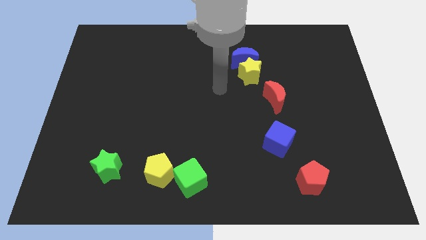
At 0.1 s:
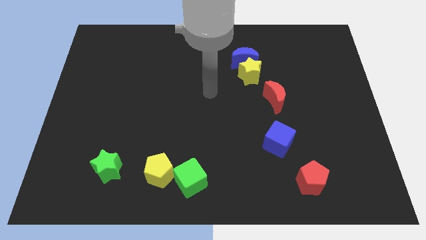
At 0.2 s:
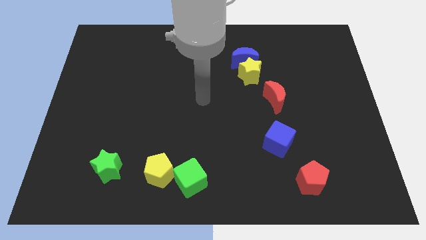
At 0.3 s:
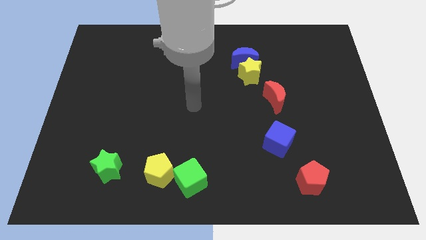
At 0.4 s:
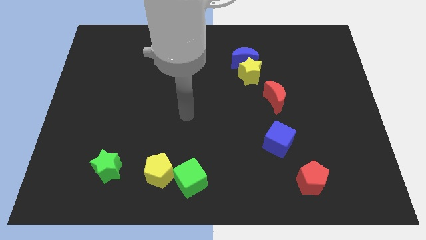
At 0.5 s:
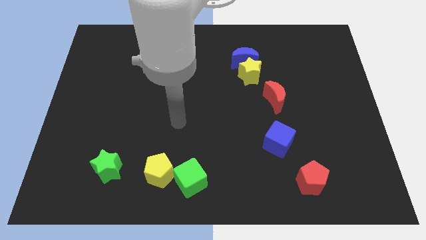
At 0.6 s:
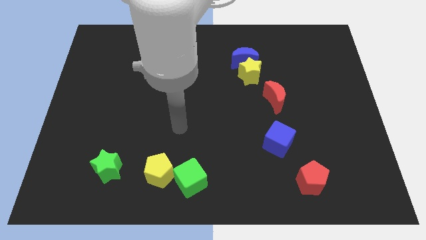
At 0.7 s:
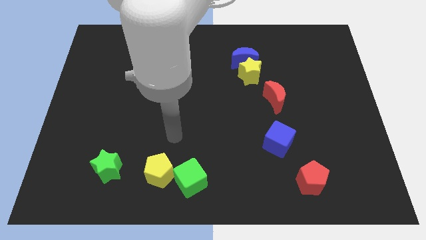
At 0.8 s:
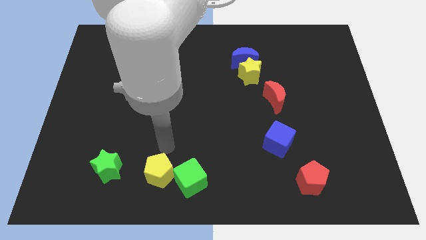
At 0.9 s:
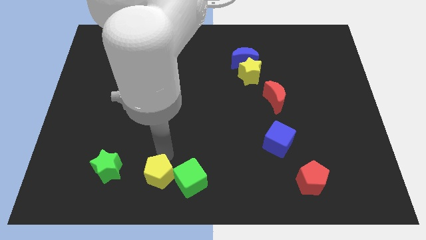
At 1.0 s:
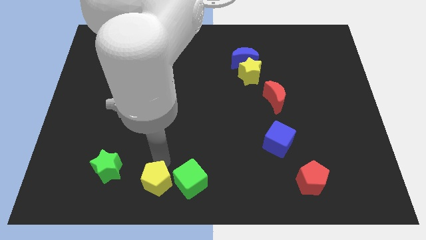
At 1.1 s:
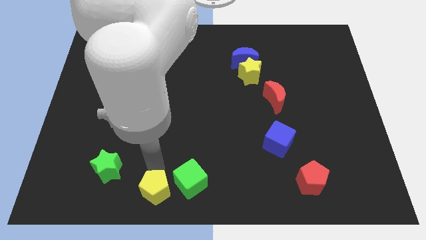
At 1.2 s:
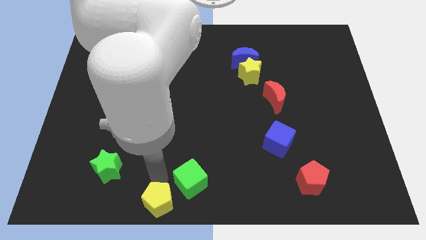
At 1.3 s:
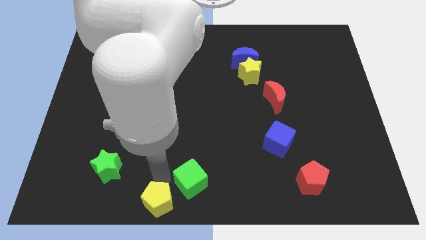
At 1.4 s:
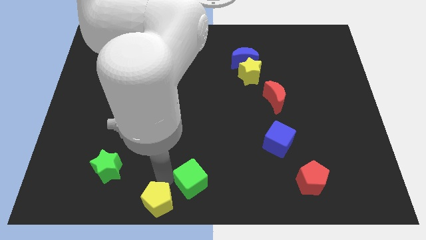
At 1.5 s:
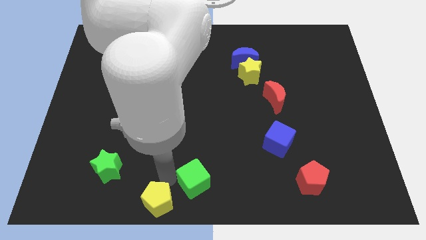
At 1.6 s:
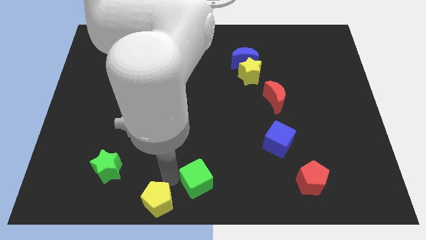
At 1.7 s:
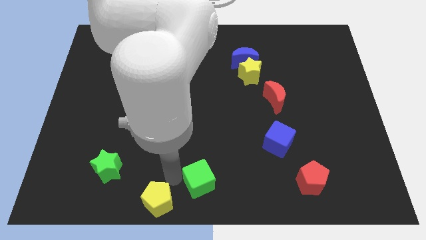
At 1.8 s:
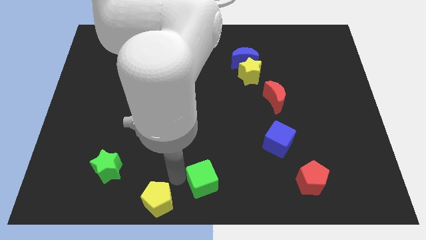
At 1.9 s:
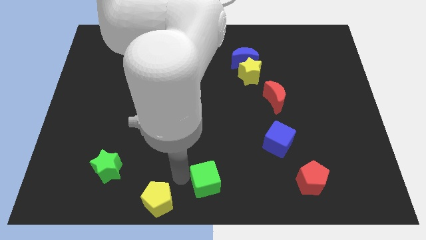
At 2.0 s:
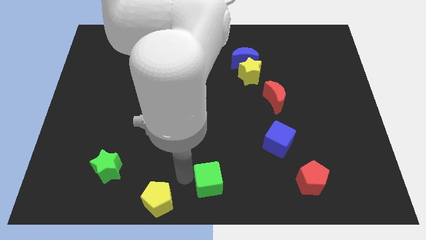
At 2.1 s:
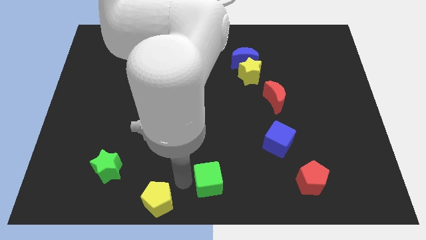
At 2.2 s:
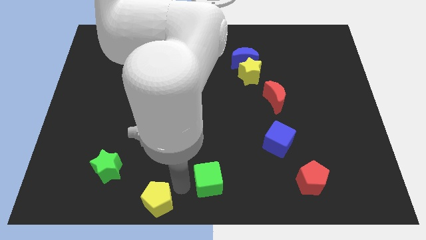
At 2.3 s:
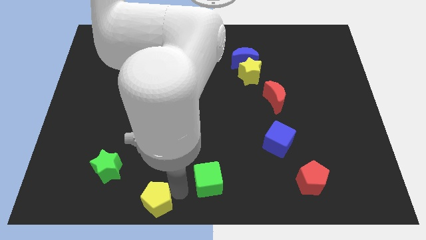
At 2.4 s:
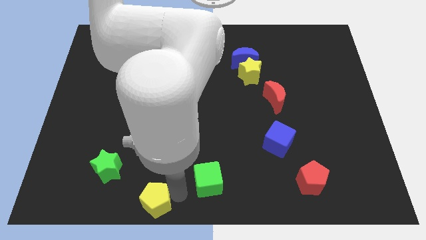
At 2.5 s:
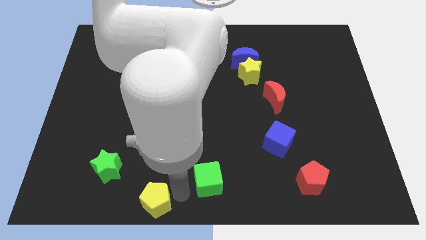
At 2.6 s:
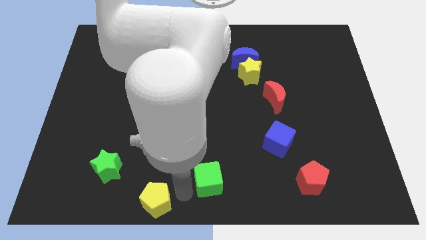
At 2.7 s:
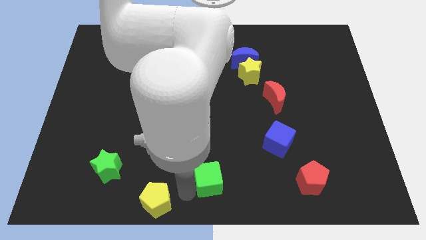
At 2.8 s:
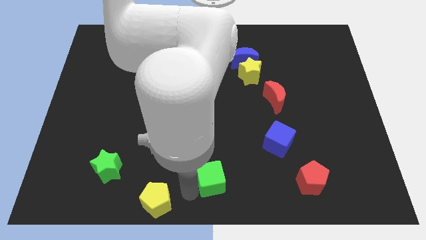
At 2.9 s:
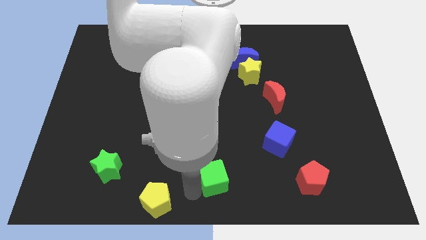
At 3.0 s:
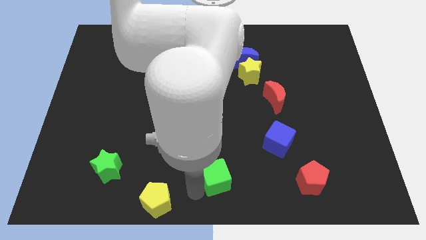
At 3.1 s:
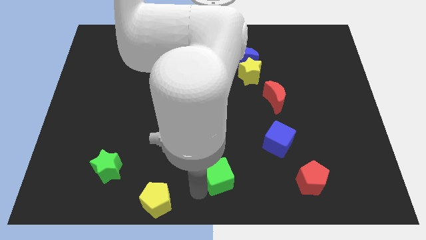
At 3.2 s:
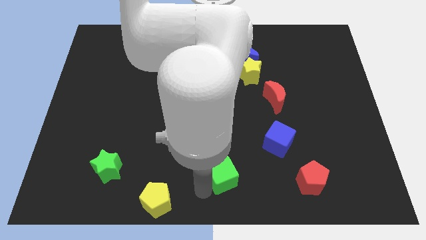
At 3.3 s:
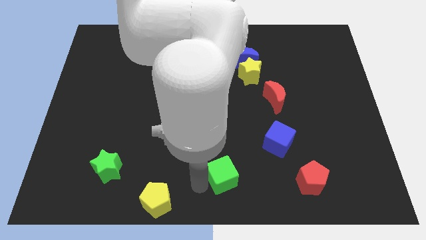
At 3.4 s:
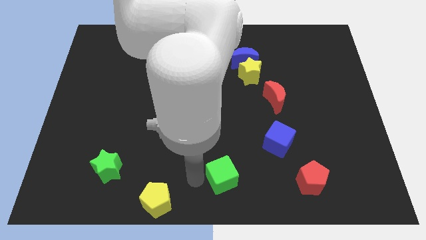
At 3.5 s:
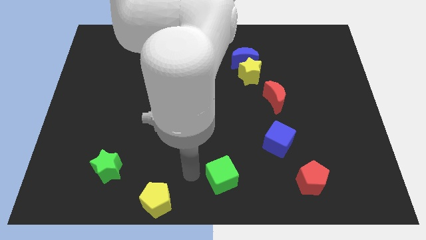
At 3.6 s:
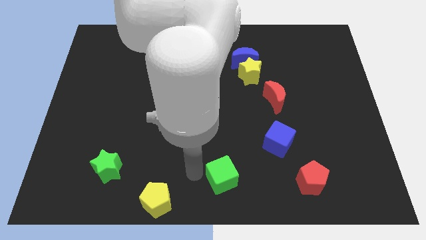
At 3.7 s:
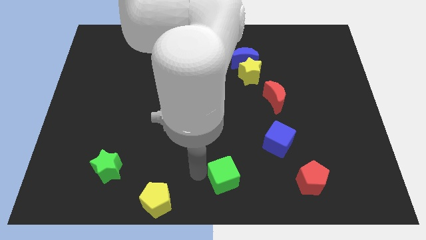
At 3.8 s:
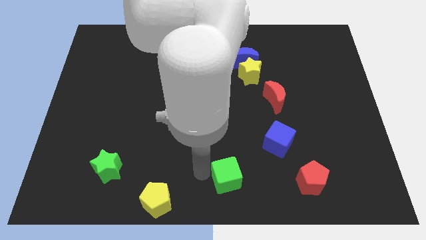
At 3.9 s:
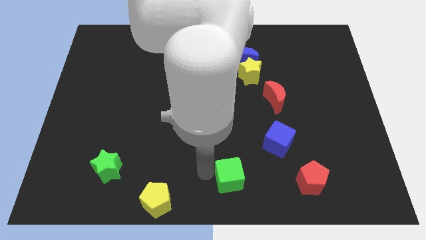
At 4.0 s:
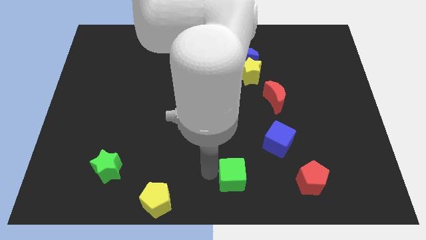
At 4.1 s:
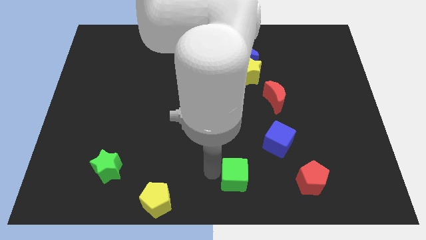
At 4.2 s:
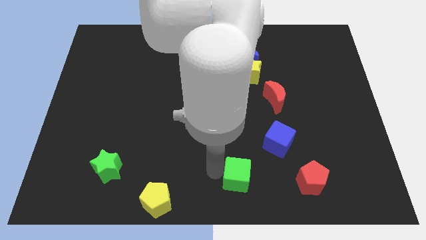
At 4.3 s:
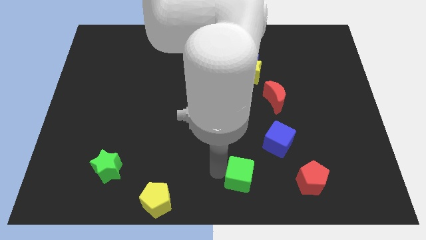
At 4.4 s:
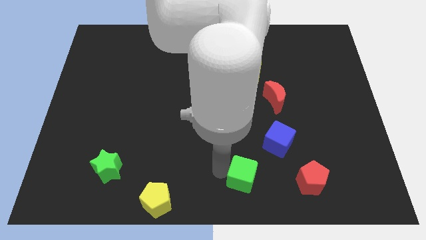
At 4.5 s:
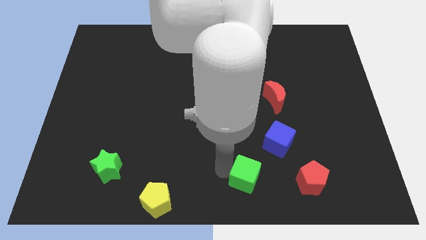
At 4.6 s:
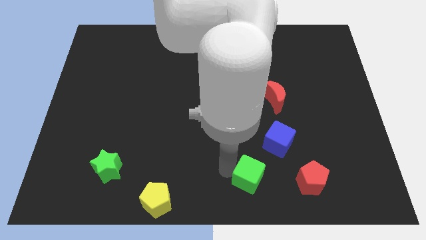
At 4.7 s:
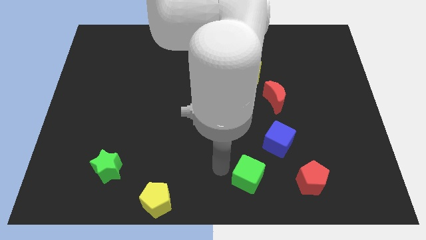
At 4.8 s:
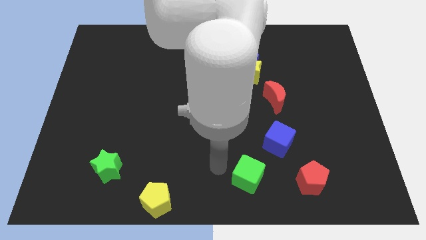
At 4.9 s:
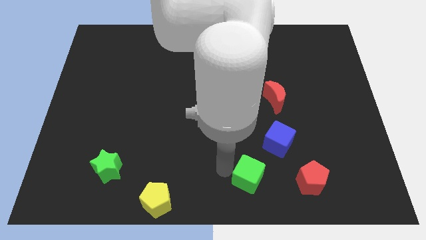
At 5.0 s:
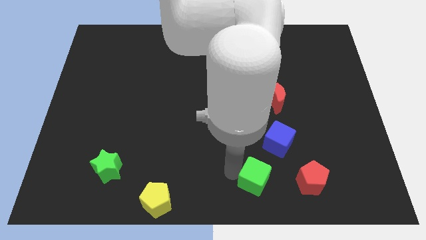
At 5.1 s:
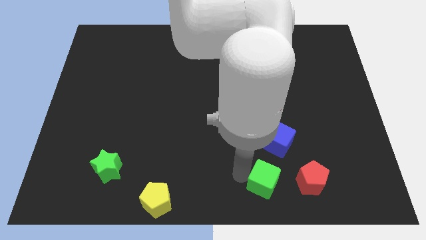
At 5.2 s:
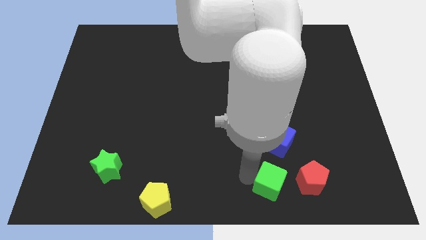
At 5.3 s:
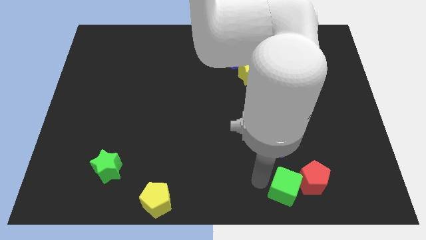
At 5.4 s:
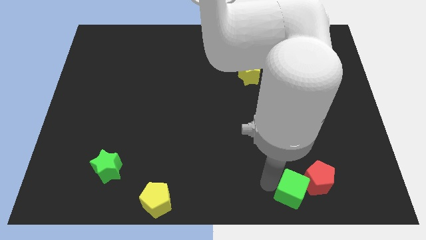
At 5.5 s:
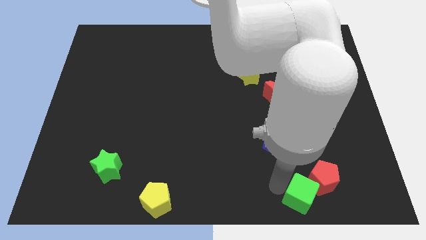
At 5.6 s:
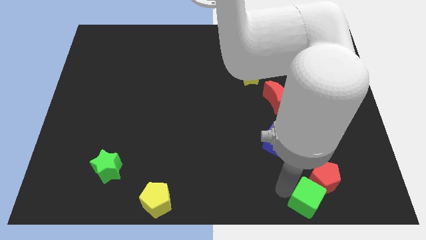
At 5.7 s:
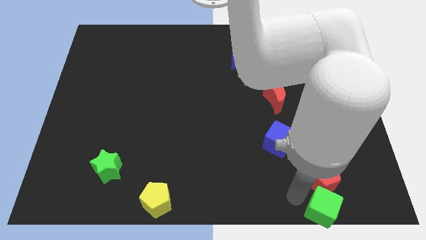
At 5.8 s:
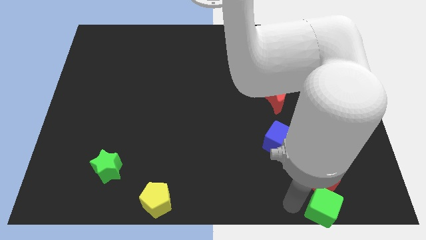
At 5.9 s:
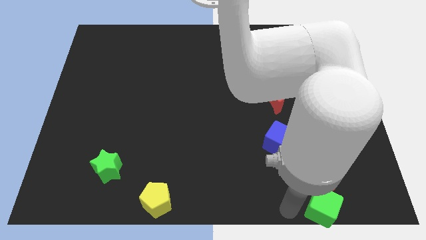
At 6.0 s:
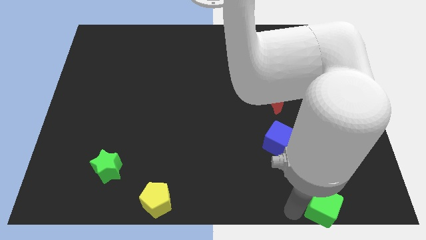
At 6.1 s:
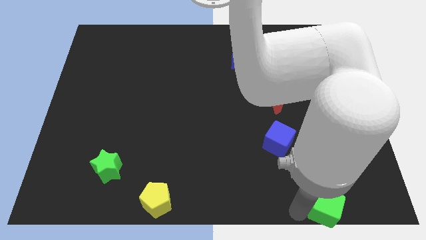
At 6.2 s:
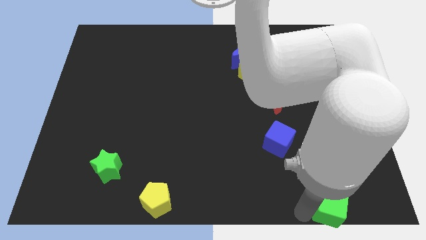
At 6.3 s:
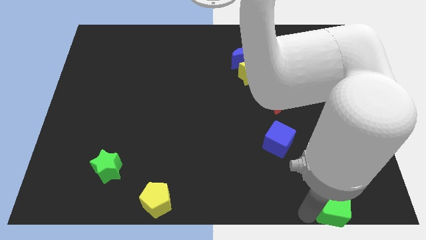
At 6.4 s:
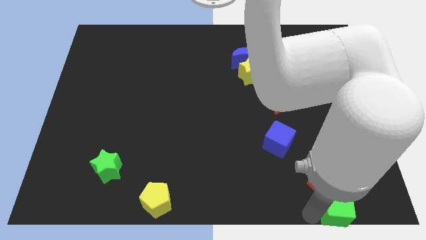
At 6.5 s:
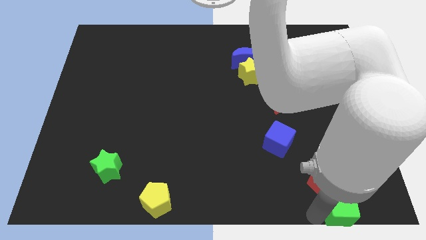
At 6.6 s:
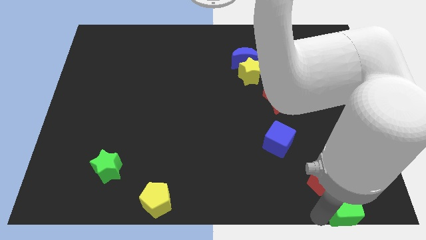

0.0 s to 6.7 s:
move the green cube to the lower right corner

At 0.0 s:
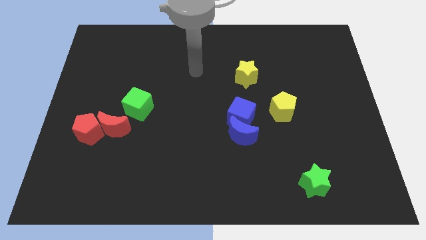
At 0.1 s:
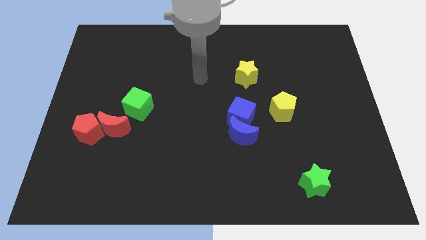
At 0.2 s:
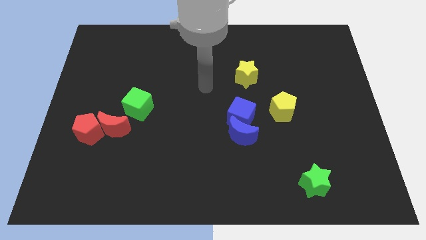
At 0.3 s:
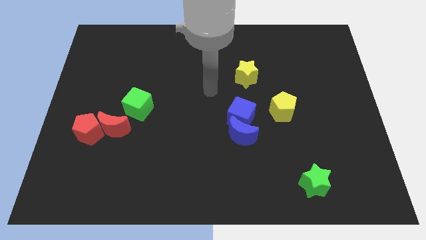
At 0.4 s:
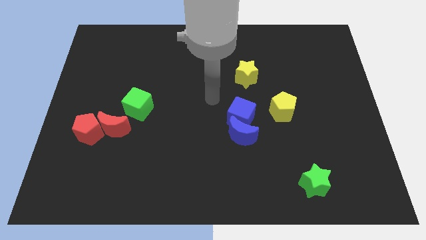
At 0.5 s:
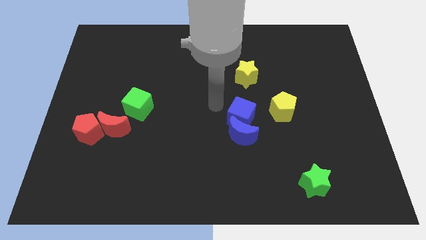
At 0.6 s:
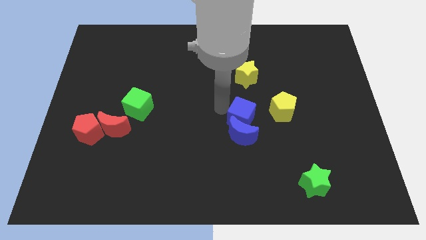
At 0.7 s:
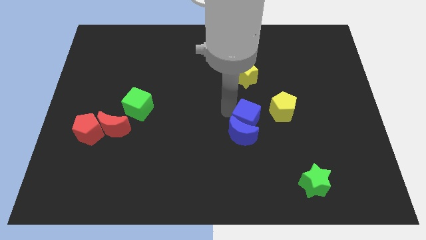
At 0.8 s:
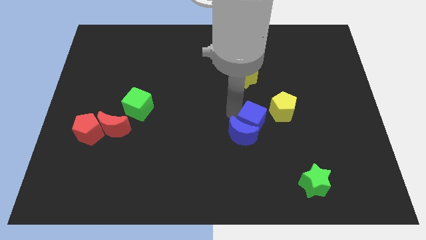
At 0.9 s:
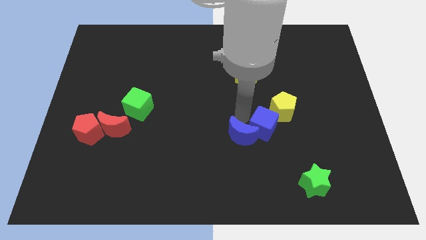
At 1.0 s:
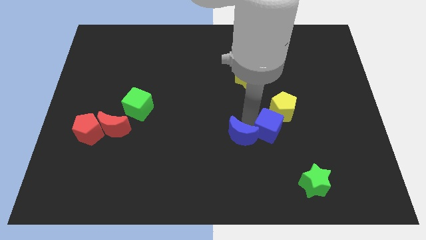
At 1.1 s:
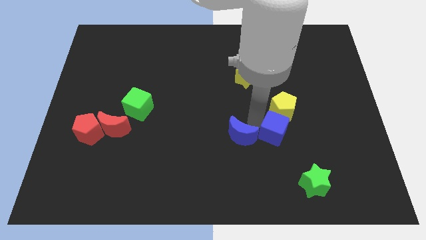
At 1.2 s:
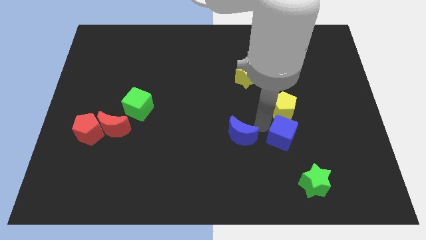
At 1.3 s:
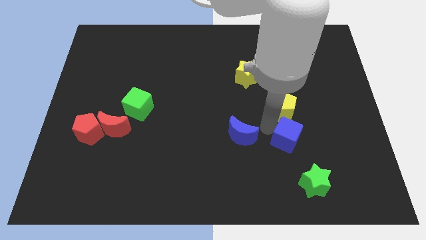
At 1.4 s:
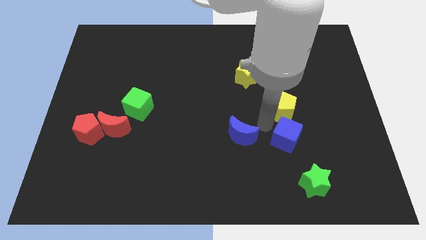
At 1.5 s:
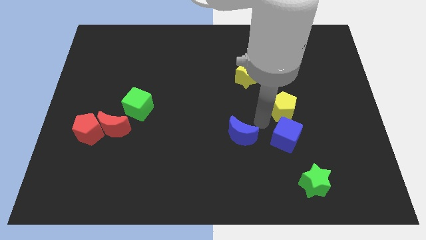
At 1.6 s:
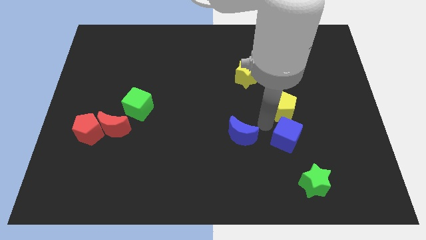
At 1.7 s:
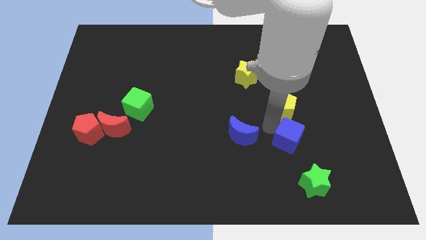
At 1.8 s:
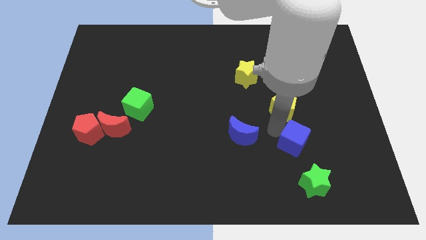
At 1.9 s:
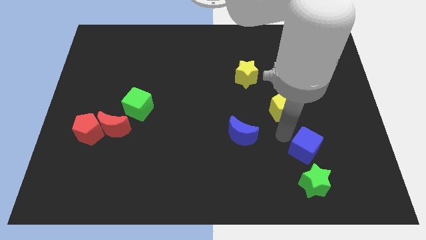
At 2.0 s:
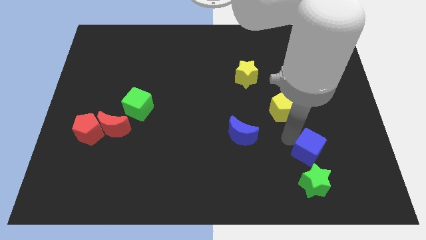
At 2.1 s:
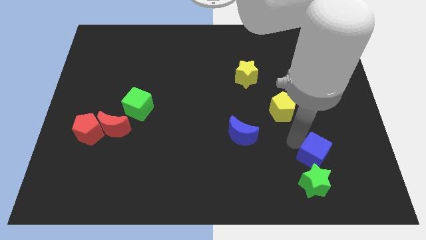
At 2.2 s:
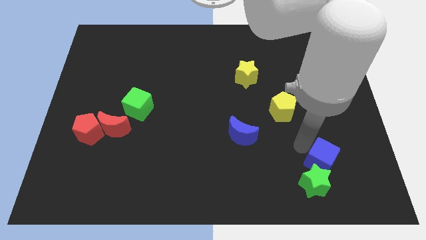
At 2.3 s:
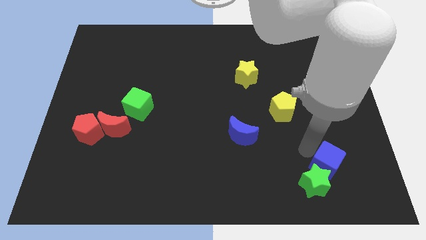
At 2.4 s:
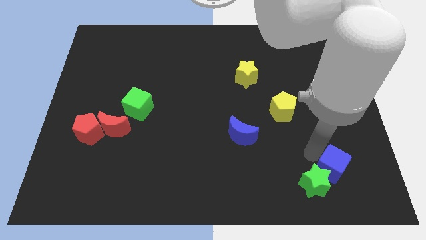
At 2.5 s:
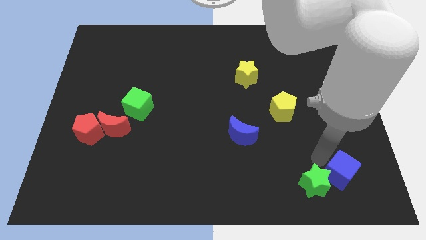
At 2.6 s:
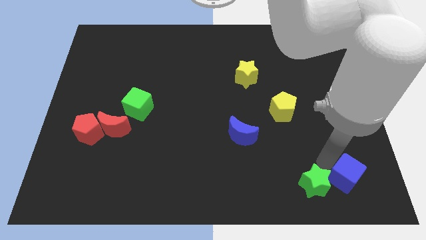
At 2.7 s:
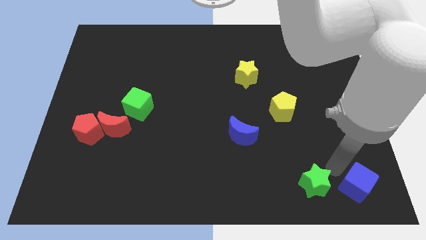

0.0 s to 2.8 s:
move the blue cube to the bottom right of the board
